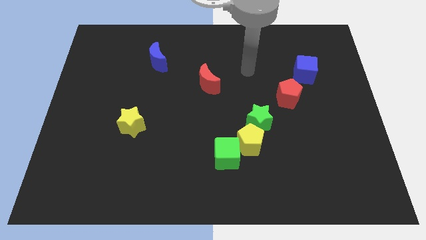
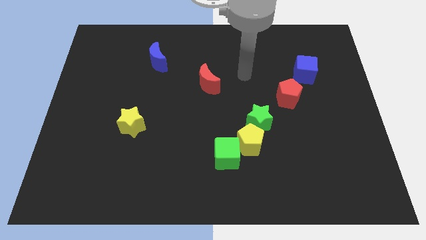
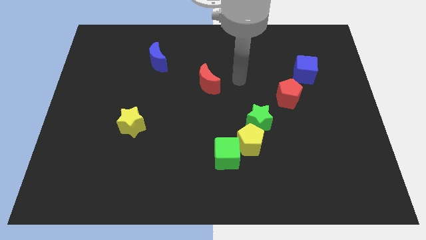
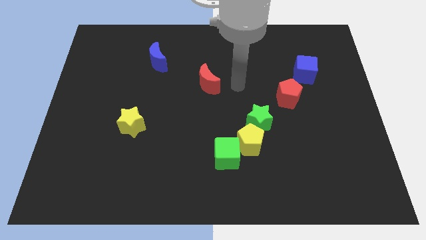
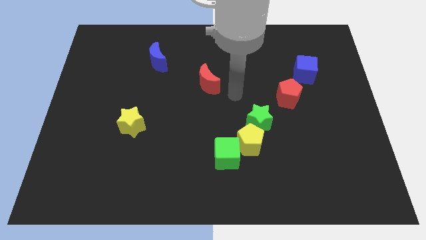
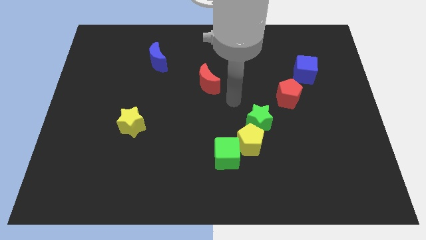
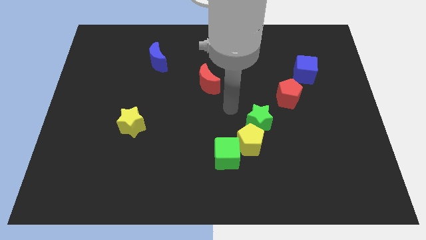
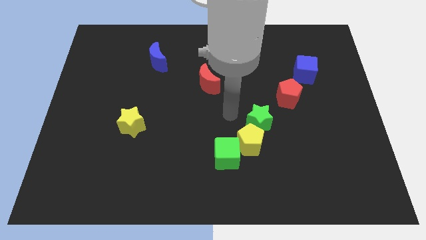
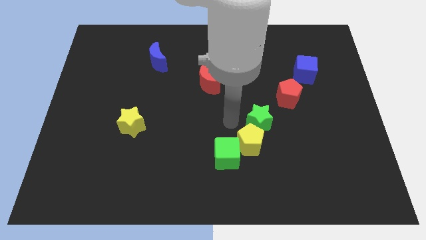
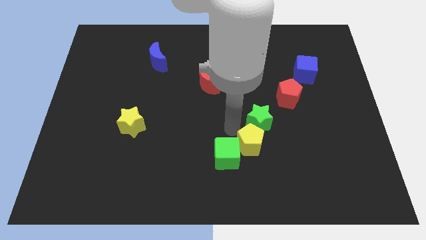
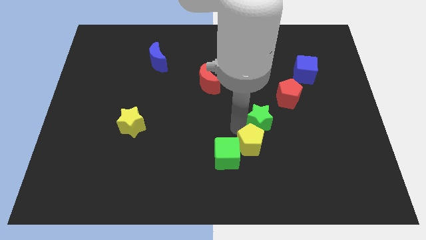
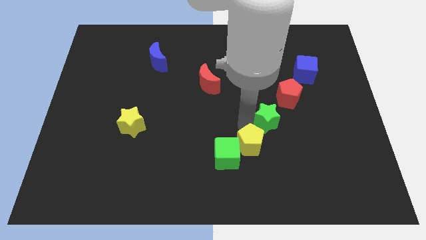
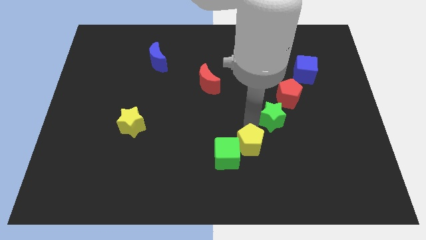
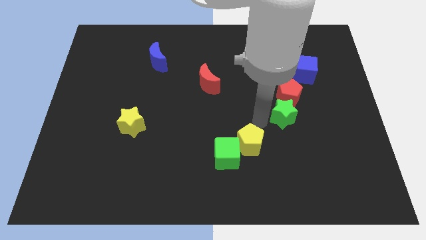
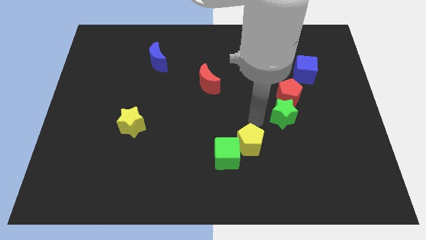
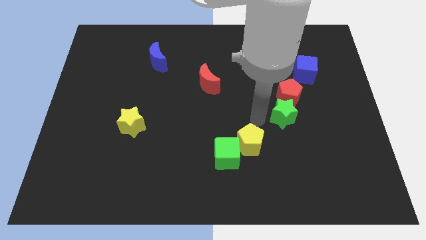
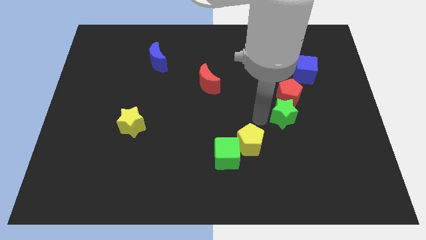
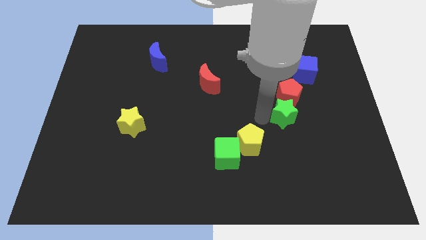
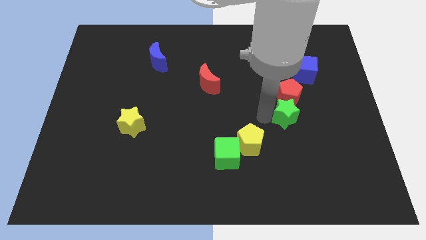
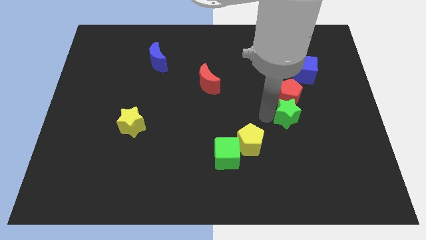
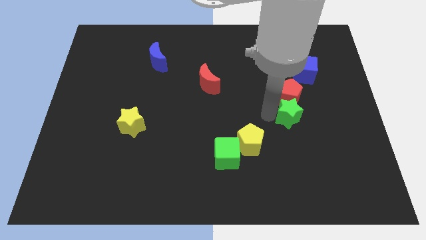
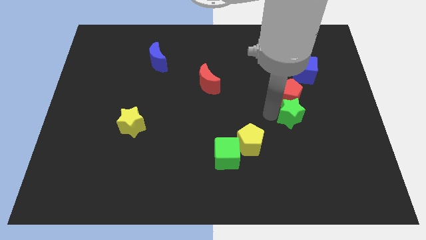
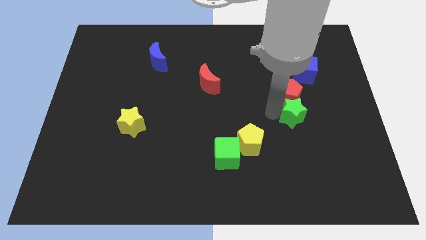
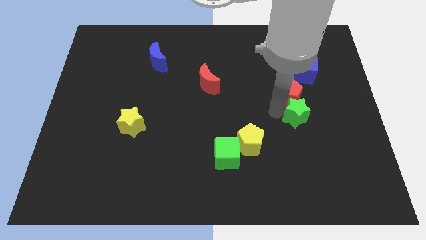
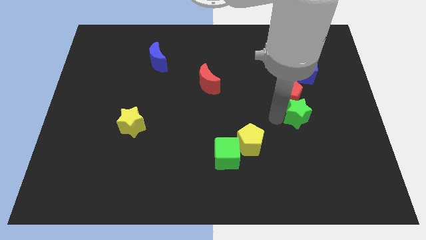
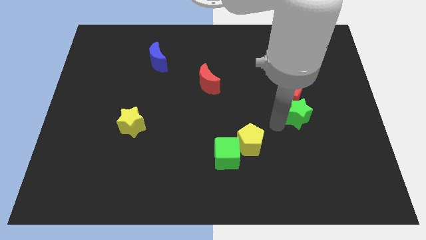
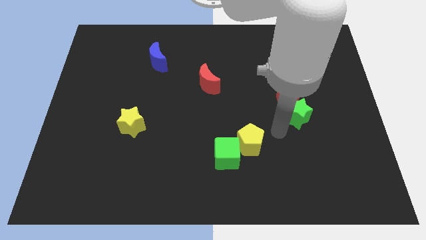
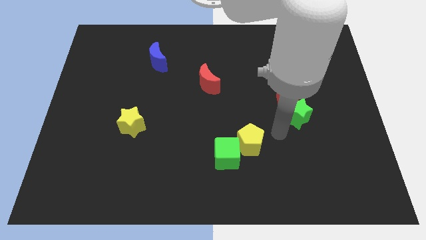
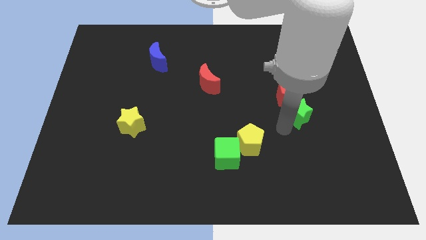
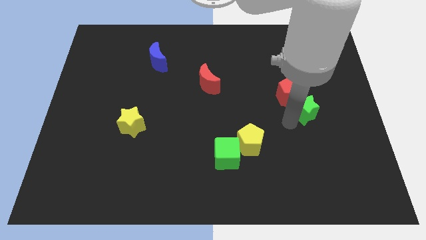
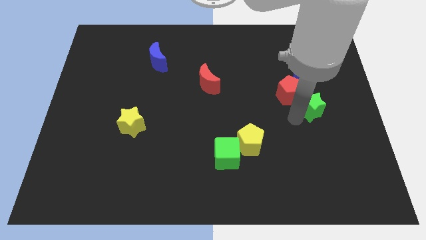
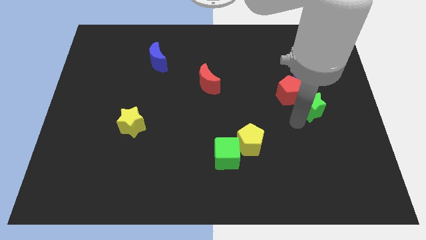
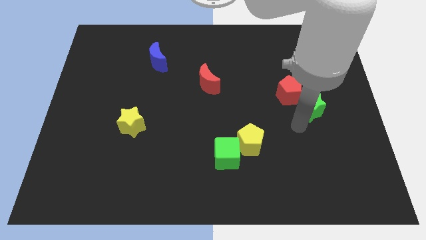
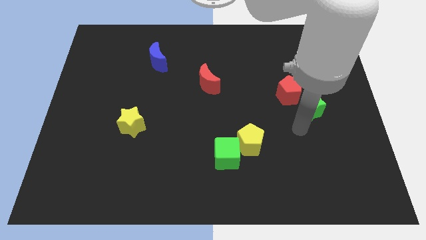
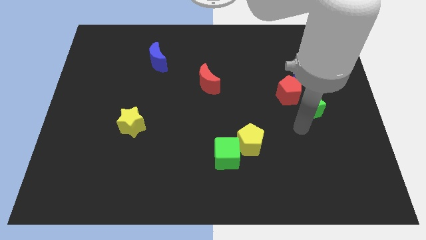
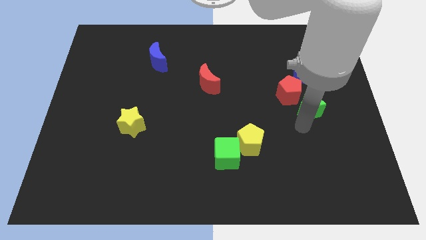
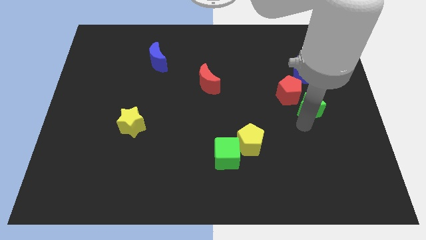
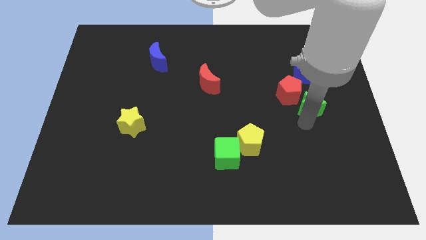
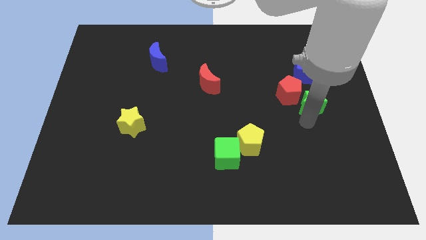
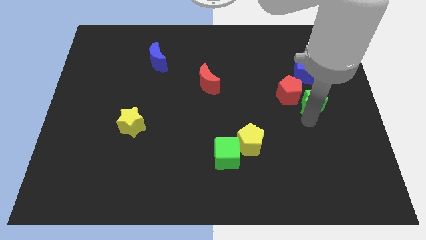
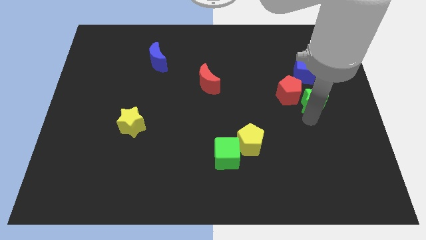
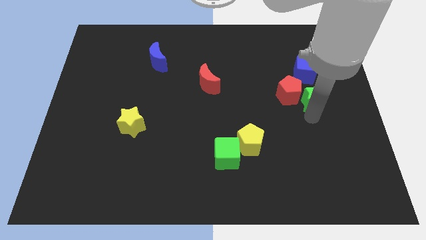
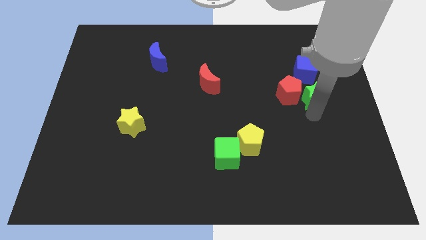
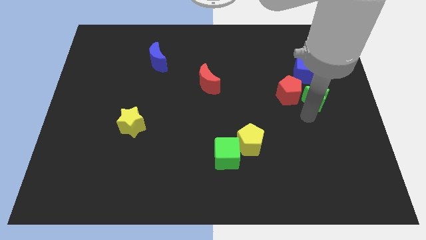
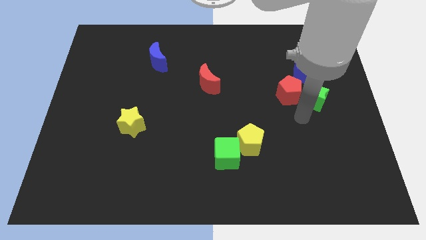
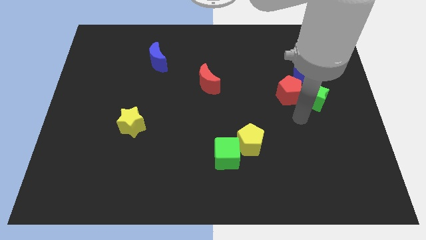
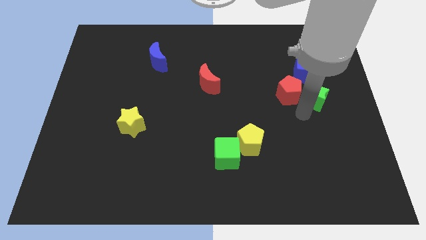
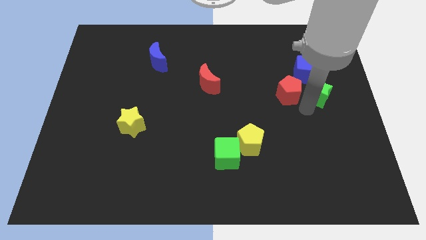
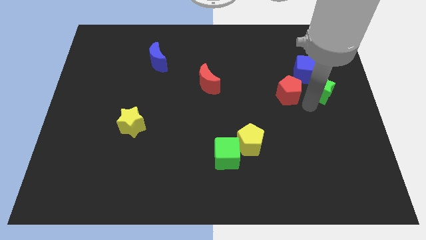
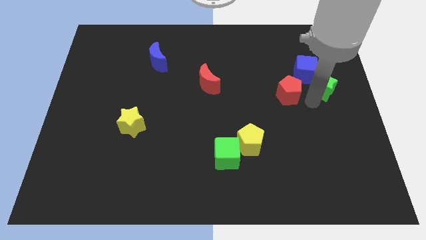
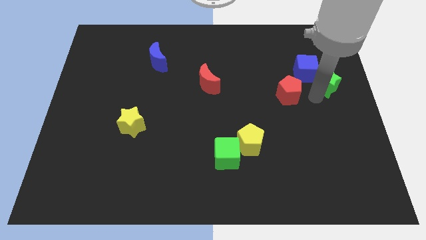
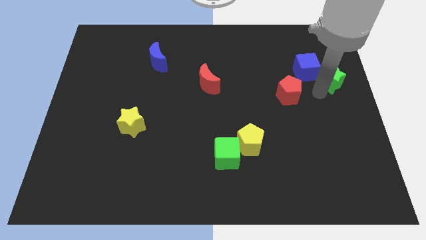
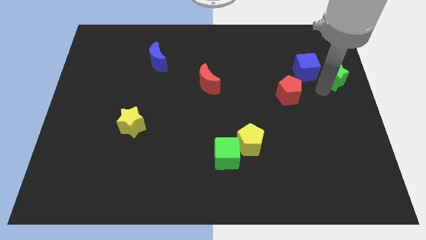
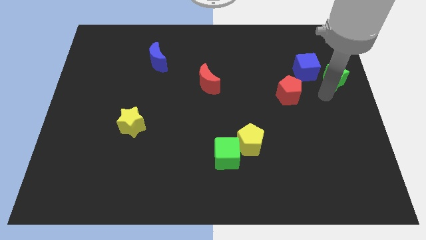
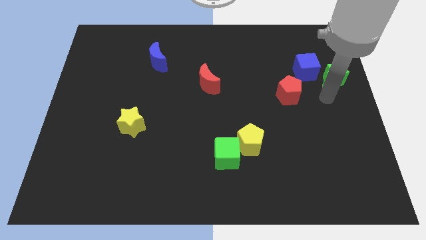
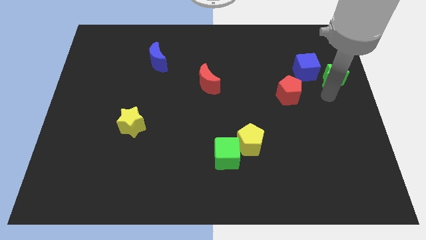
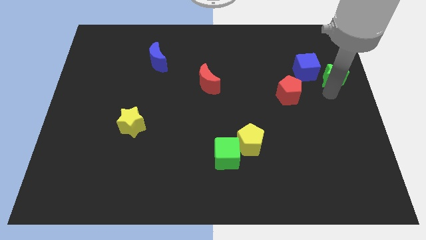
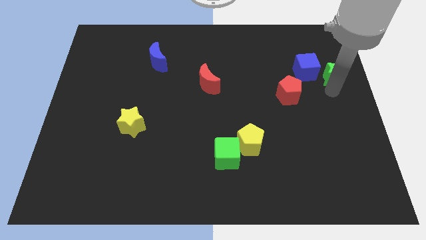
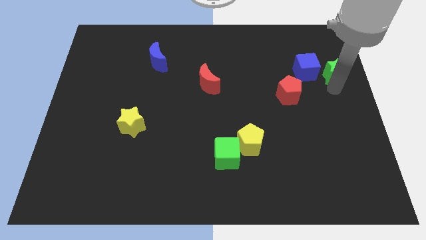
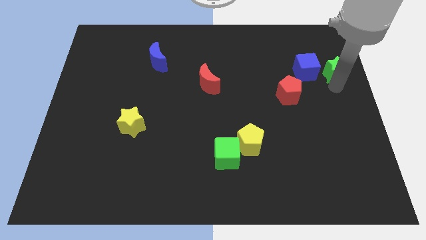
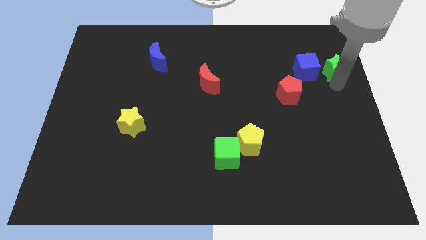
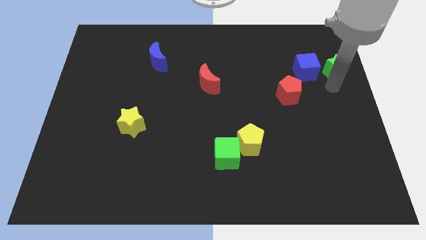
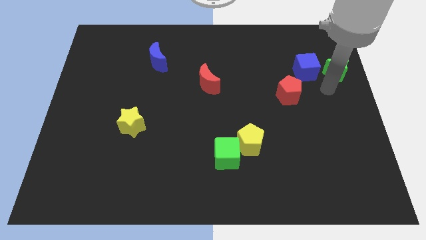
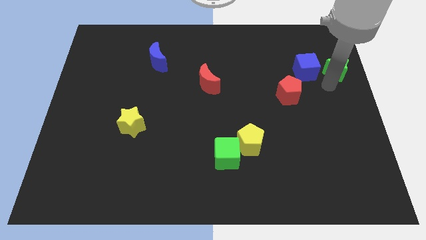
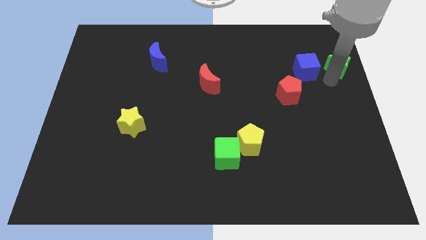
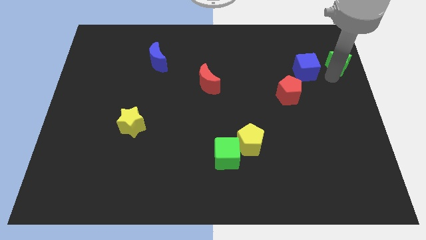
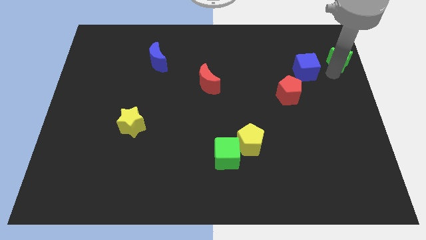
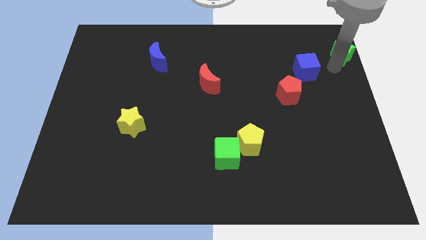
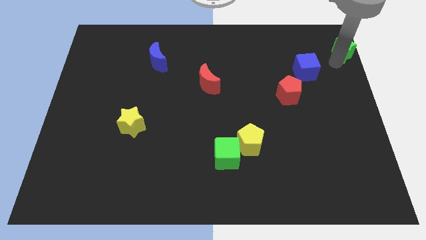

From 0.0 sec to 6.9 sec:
slide the green star to the top right of the board
